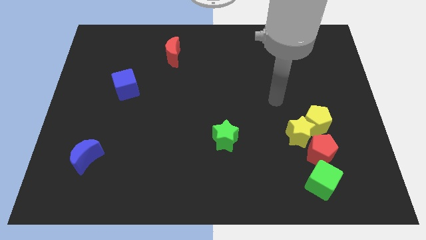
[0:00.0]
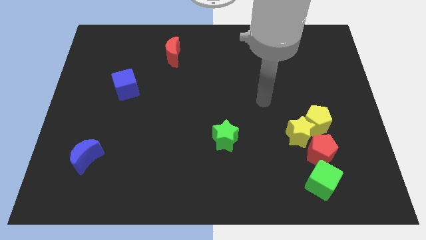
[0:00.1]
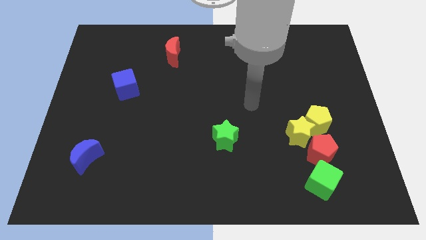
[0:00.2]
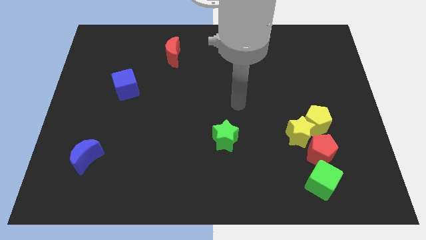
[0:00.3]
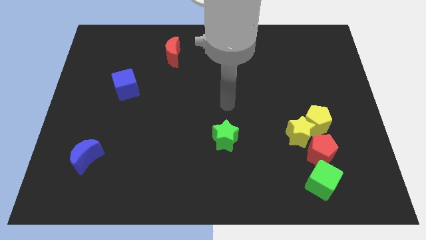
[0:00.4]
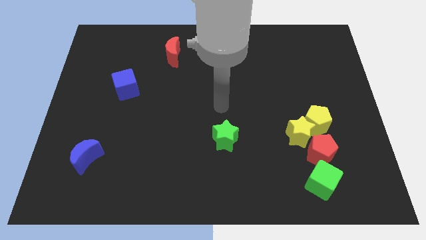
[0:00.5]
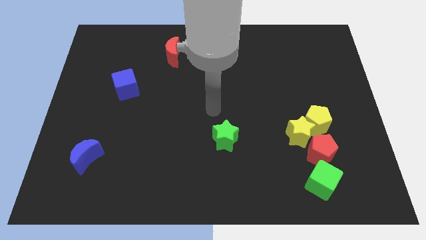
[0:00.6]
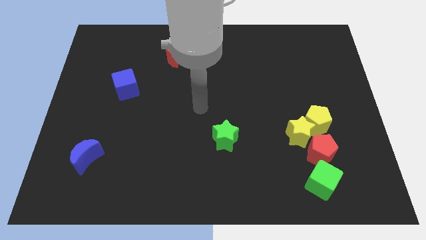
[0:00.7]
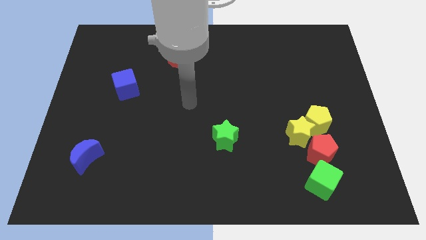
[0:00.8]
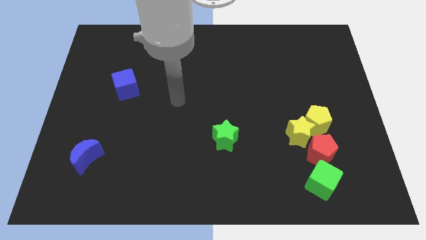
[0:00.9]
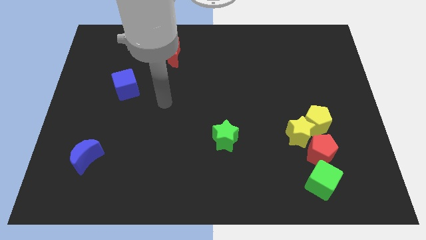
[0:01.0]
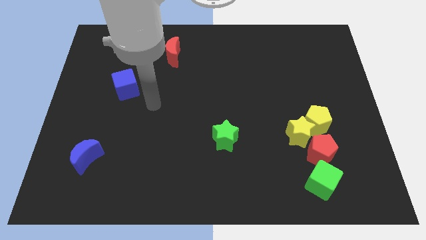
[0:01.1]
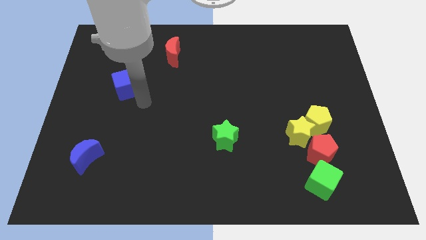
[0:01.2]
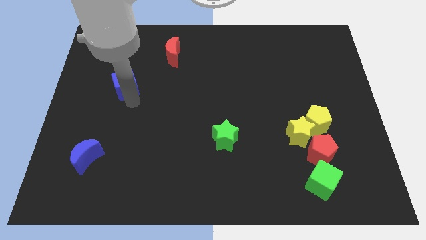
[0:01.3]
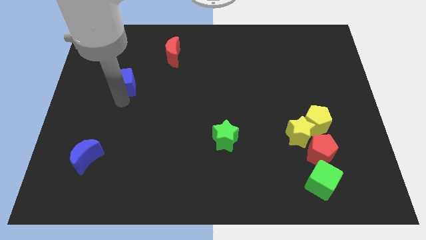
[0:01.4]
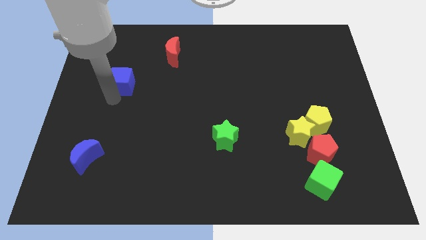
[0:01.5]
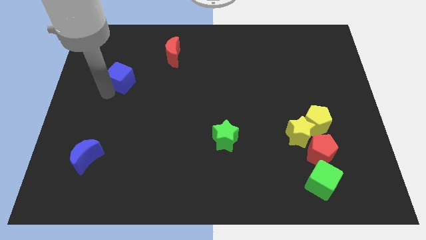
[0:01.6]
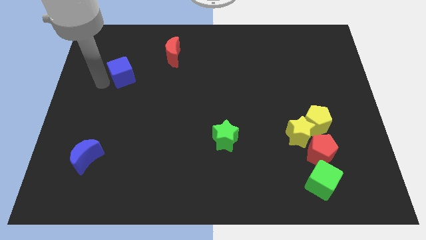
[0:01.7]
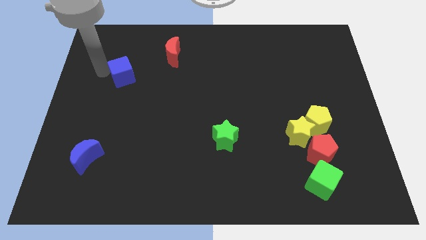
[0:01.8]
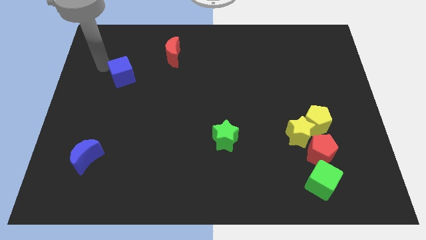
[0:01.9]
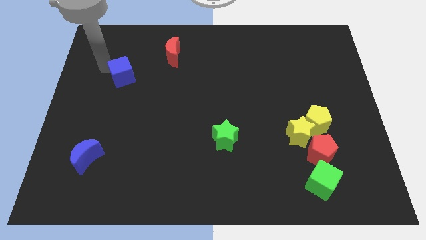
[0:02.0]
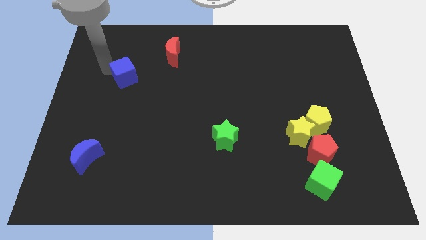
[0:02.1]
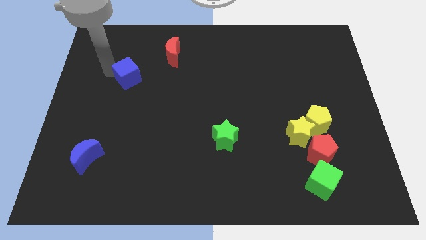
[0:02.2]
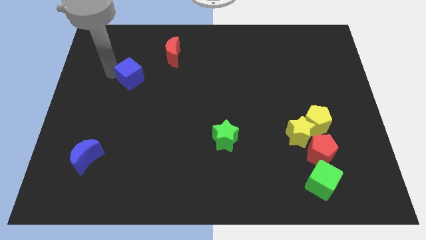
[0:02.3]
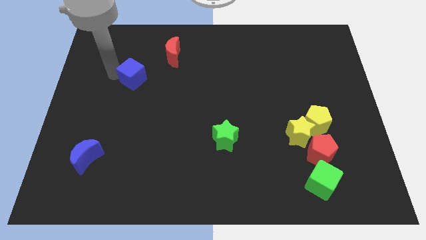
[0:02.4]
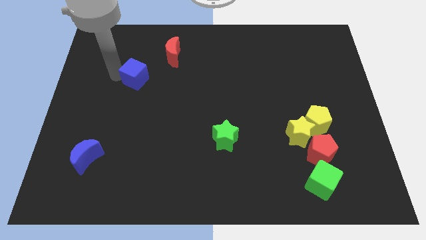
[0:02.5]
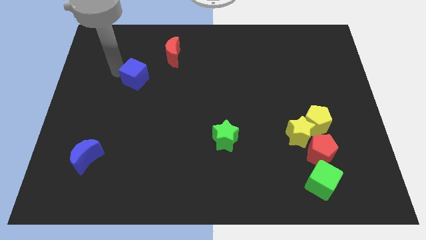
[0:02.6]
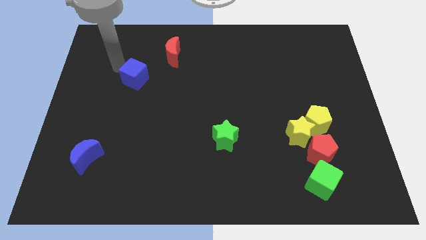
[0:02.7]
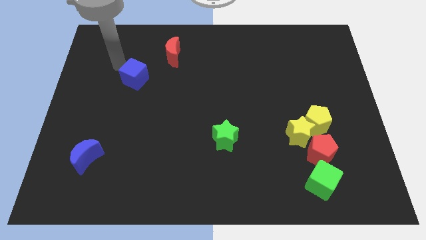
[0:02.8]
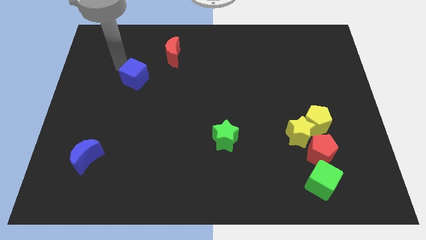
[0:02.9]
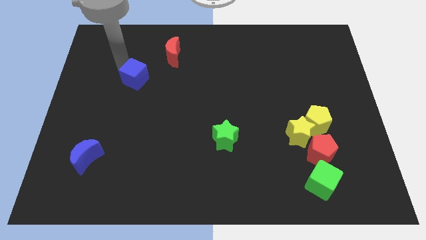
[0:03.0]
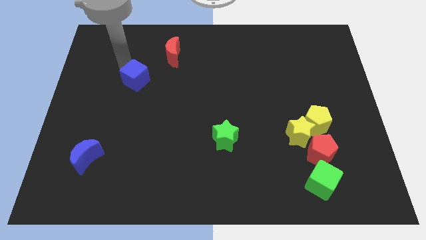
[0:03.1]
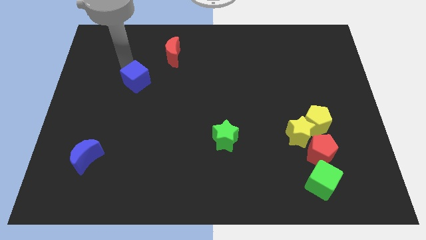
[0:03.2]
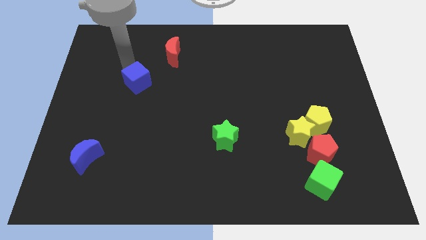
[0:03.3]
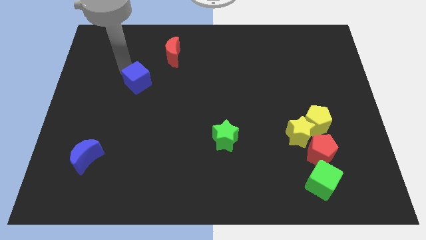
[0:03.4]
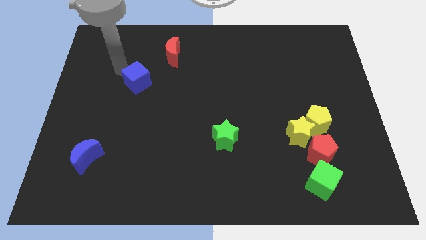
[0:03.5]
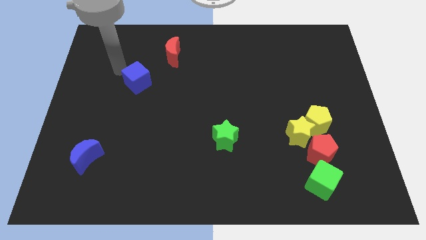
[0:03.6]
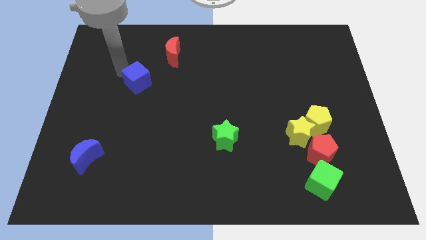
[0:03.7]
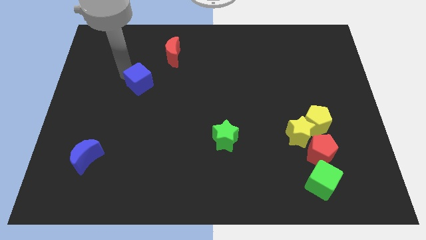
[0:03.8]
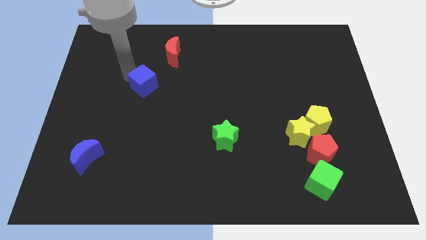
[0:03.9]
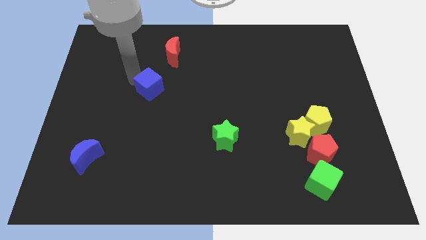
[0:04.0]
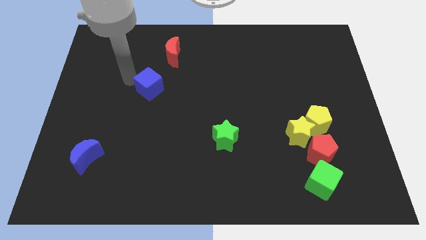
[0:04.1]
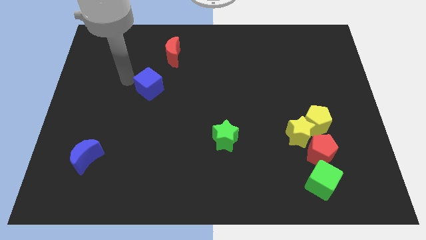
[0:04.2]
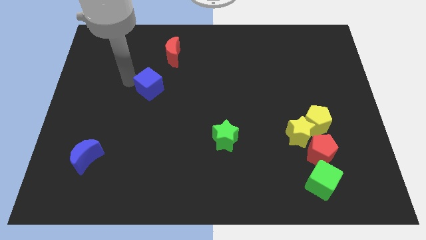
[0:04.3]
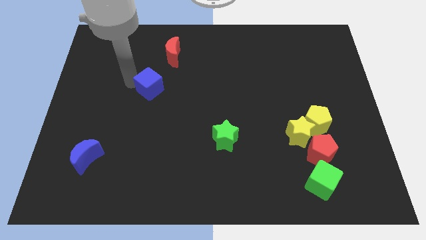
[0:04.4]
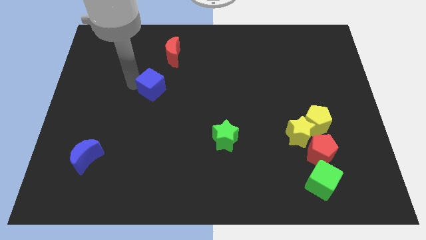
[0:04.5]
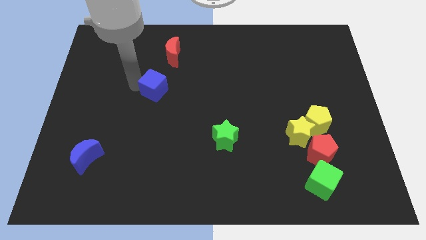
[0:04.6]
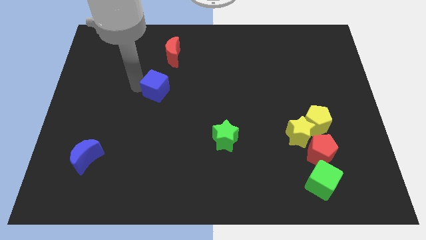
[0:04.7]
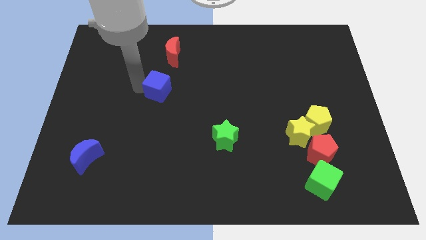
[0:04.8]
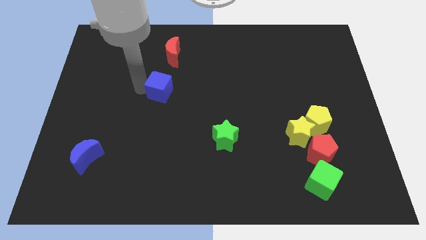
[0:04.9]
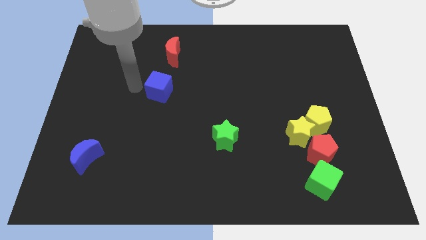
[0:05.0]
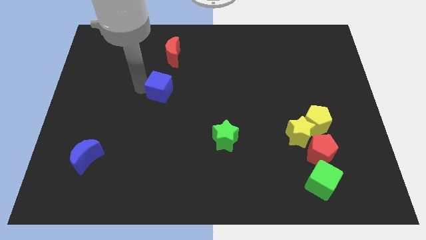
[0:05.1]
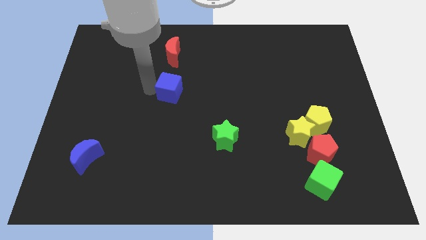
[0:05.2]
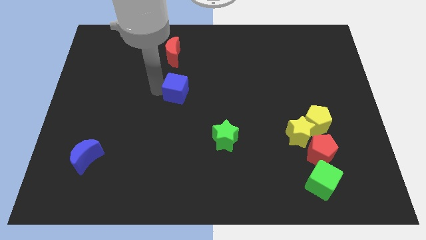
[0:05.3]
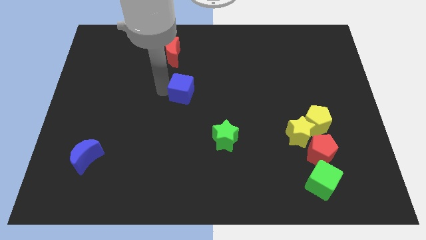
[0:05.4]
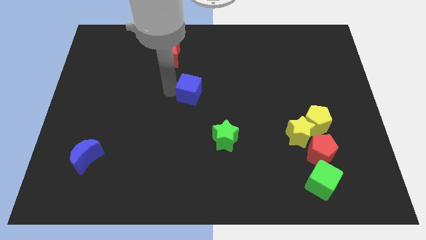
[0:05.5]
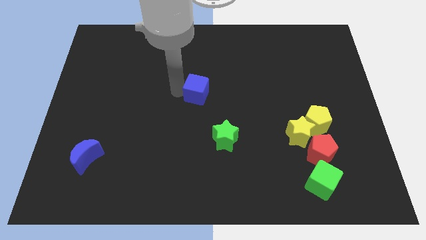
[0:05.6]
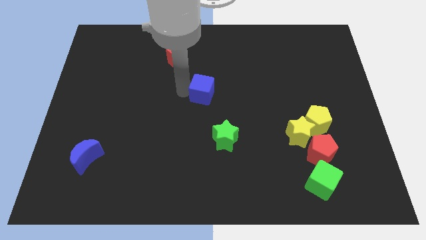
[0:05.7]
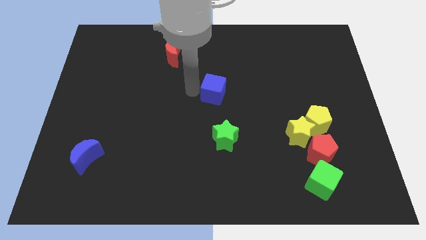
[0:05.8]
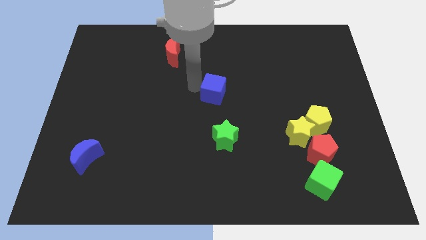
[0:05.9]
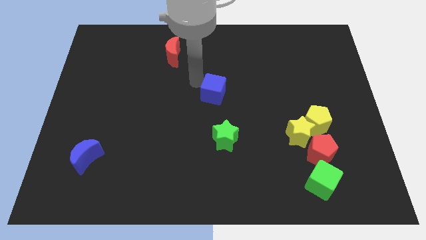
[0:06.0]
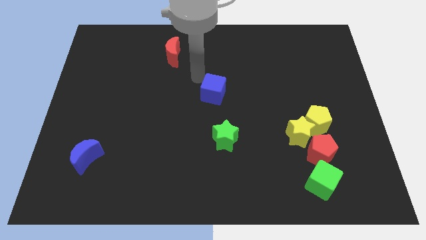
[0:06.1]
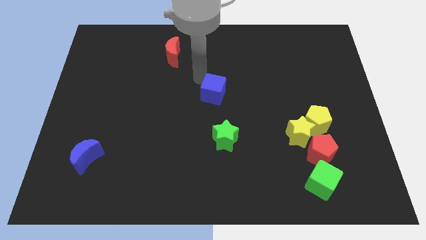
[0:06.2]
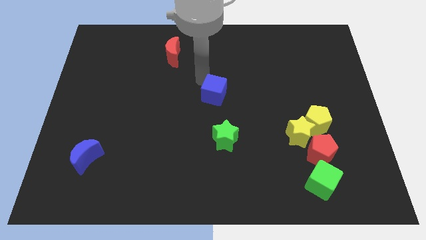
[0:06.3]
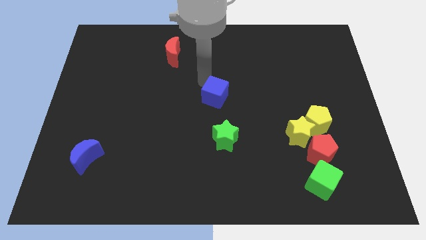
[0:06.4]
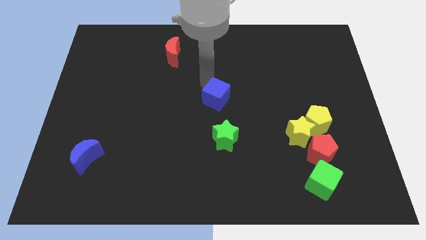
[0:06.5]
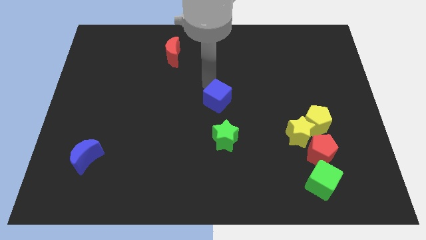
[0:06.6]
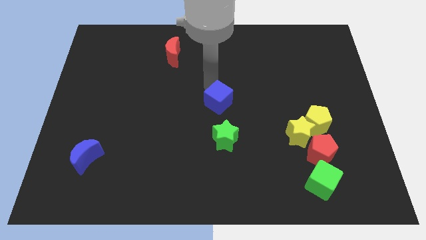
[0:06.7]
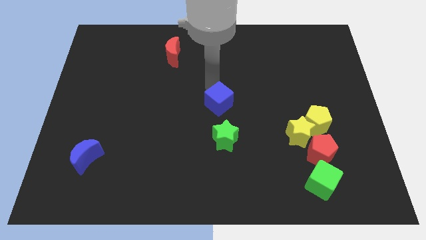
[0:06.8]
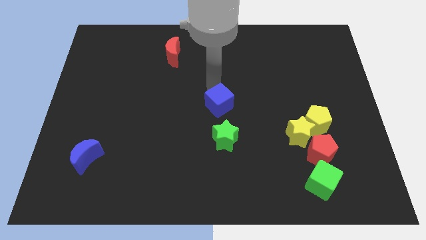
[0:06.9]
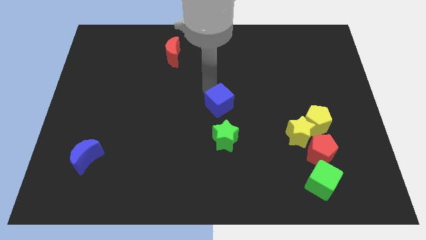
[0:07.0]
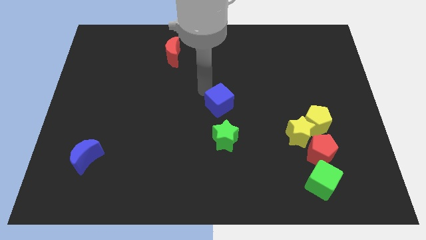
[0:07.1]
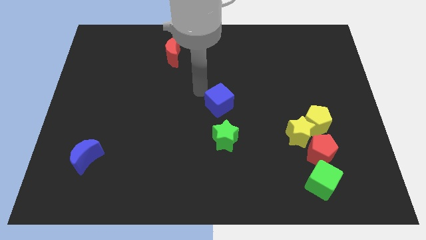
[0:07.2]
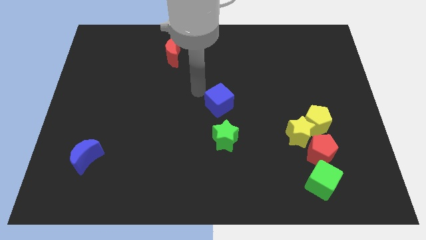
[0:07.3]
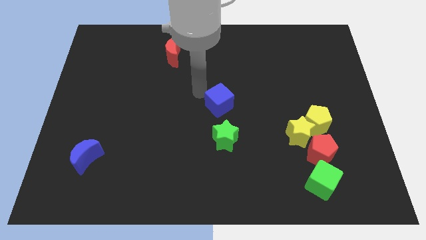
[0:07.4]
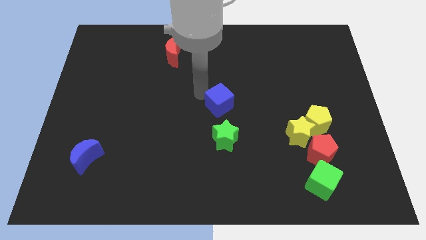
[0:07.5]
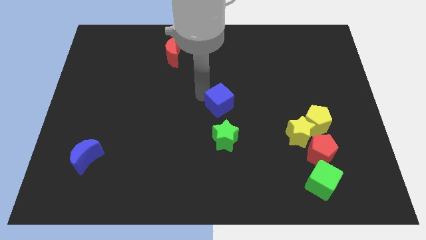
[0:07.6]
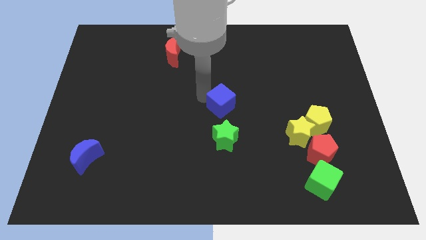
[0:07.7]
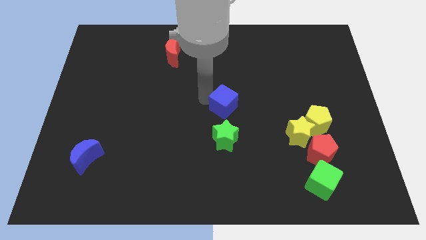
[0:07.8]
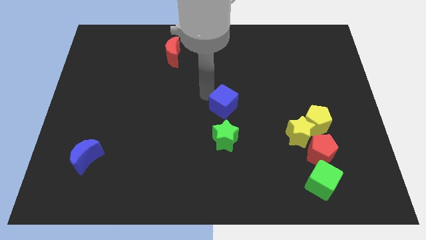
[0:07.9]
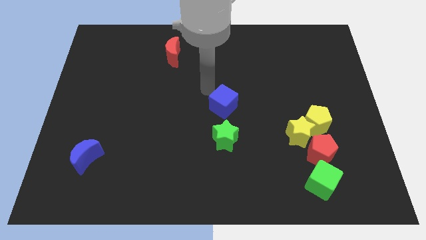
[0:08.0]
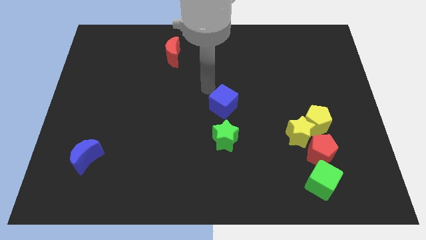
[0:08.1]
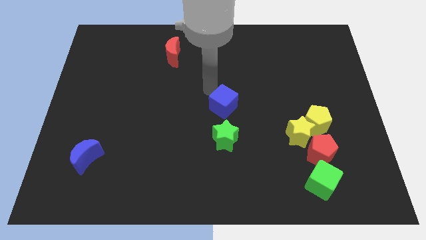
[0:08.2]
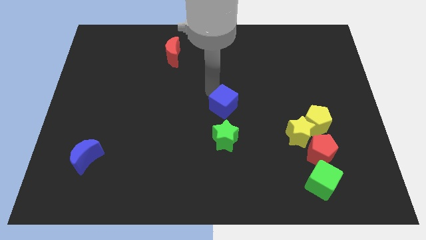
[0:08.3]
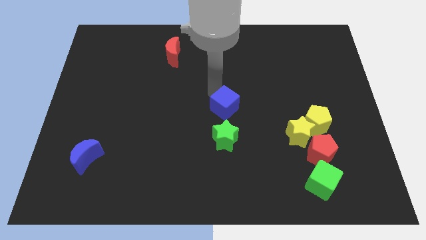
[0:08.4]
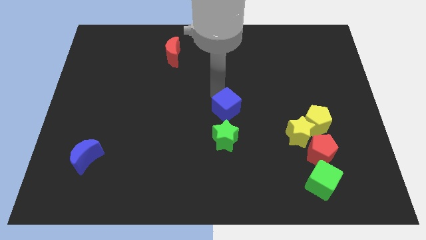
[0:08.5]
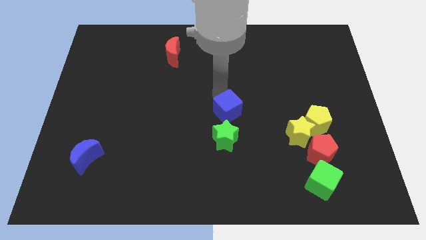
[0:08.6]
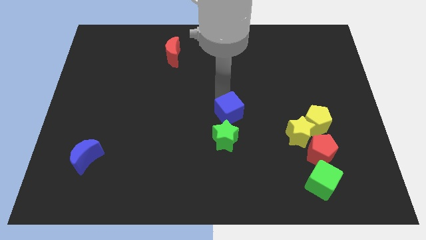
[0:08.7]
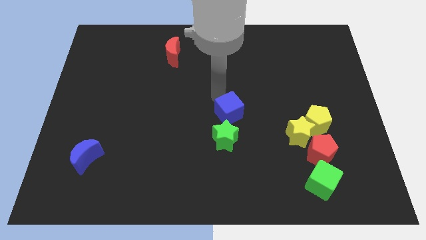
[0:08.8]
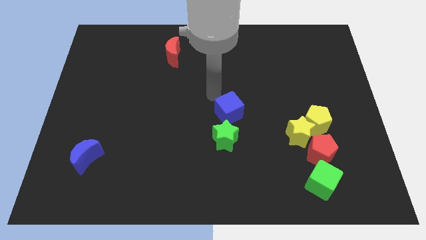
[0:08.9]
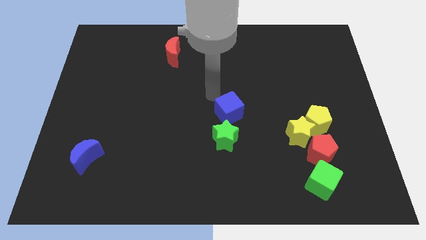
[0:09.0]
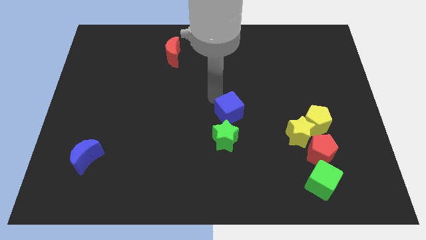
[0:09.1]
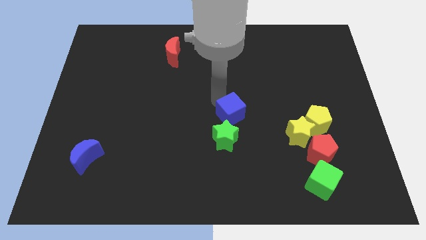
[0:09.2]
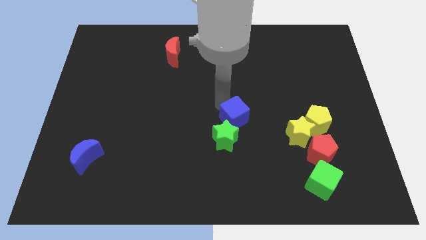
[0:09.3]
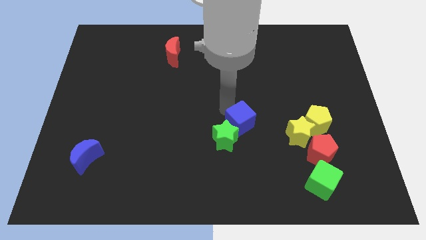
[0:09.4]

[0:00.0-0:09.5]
push the blue cube to the left side of the yellow star
